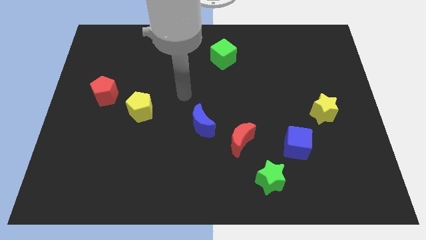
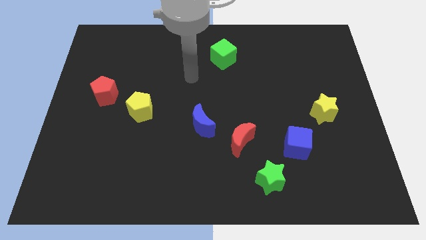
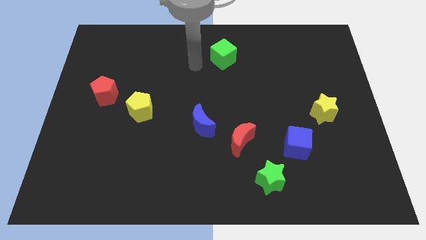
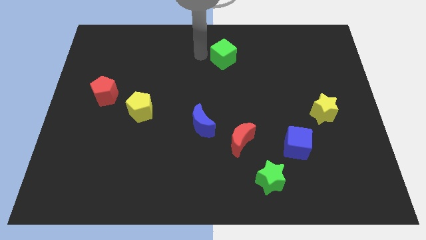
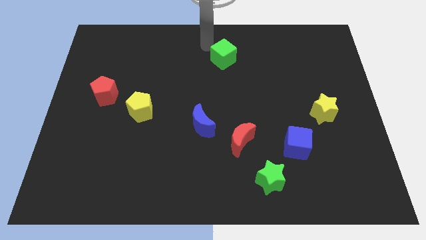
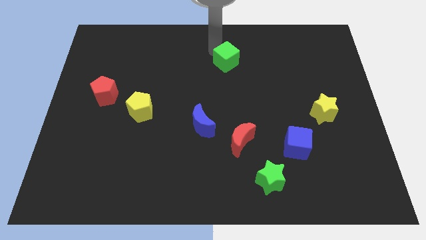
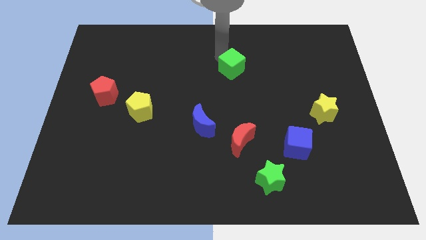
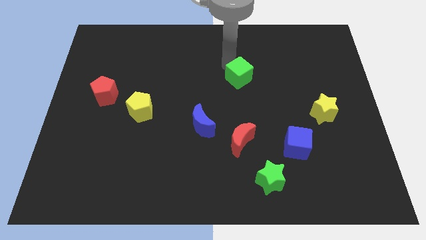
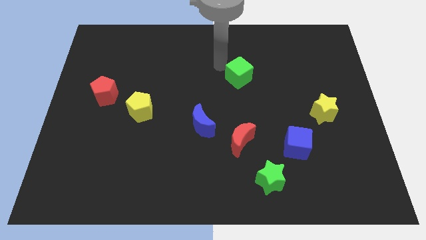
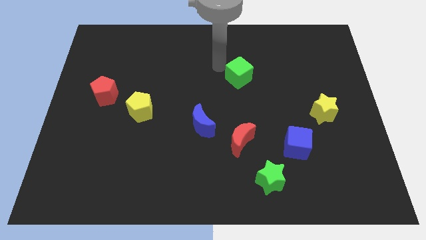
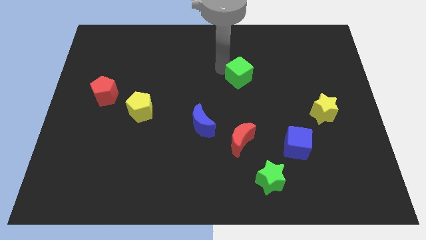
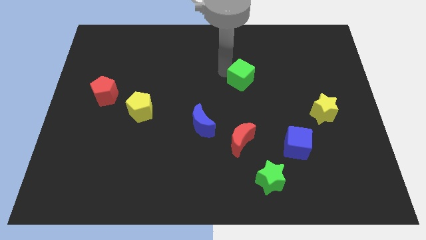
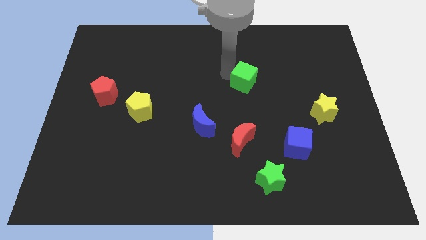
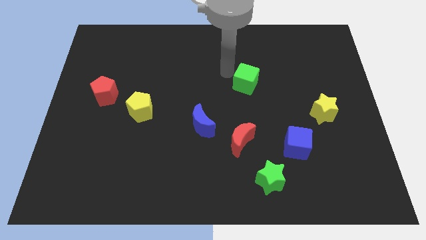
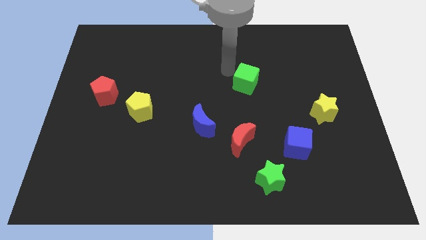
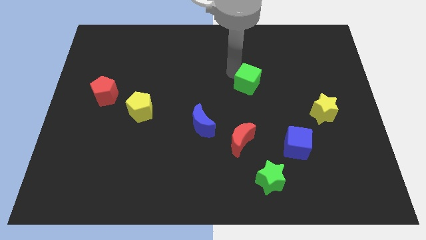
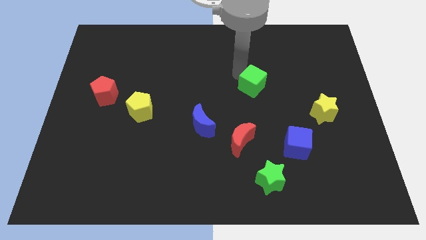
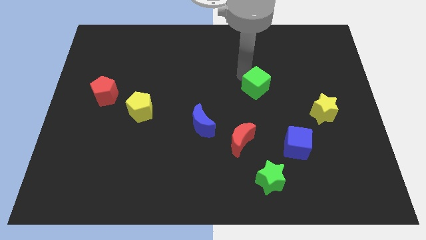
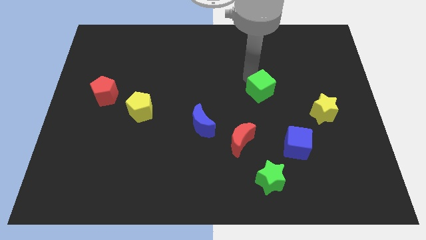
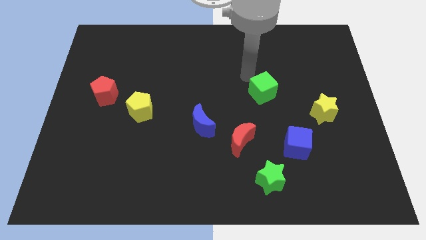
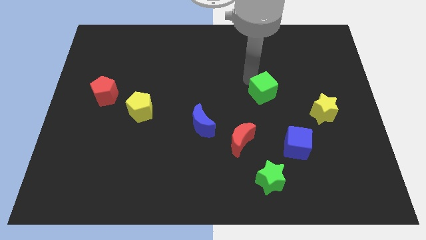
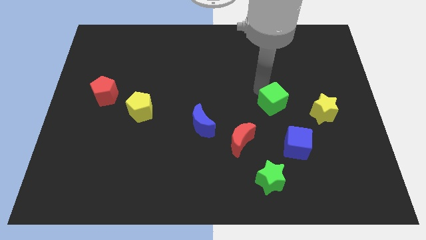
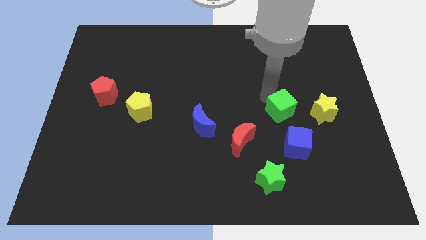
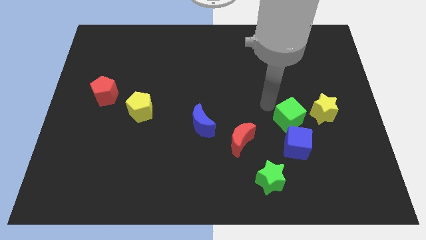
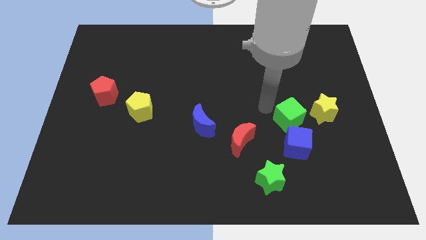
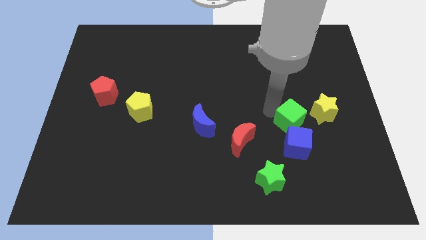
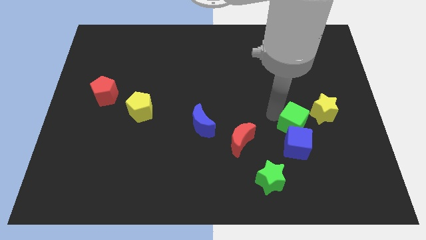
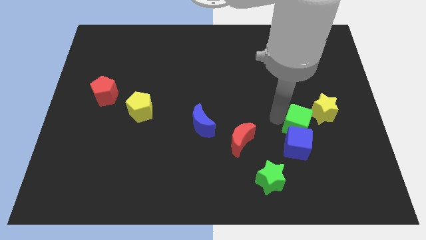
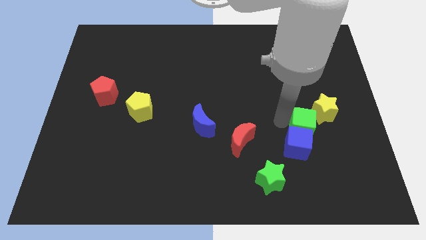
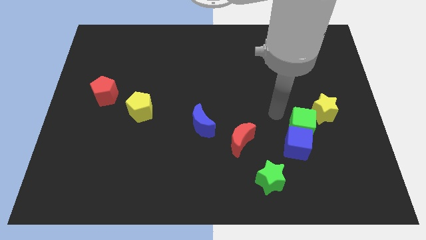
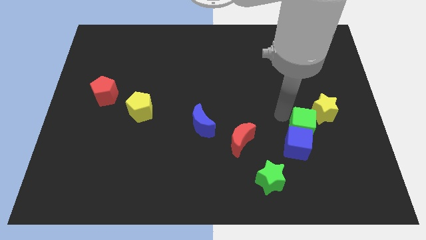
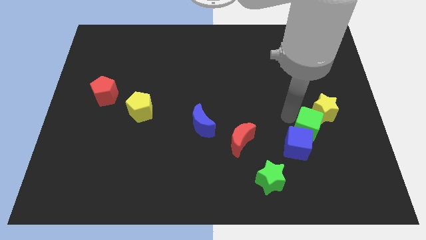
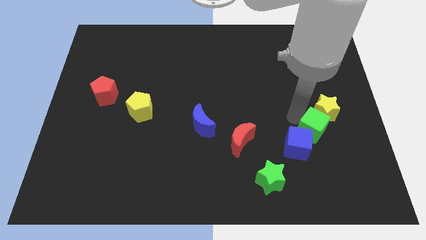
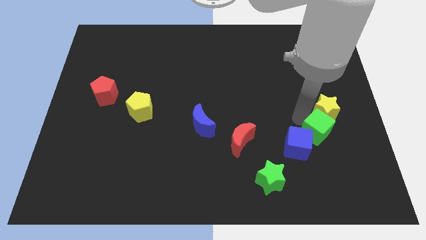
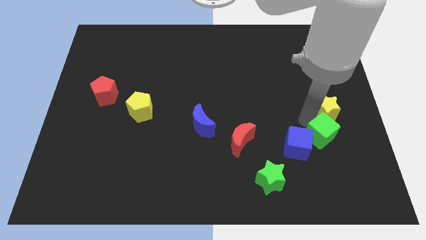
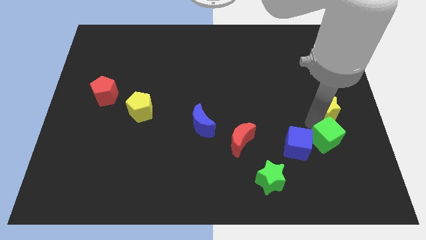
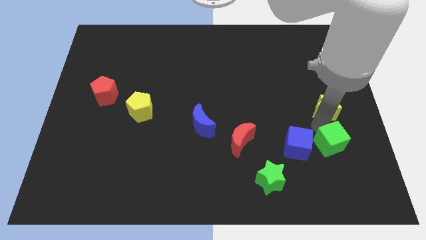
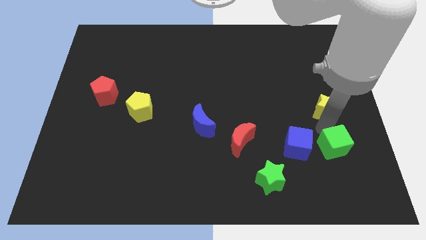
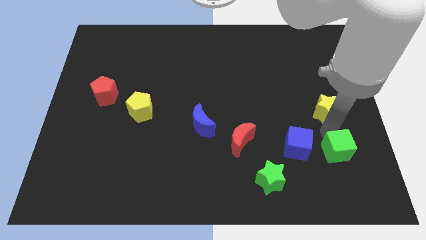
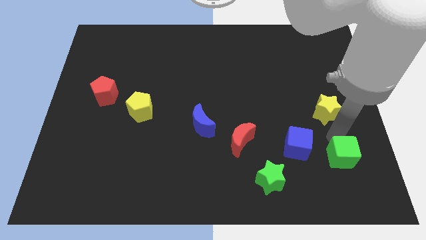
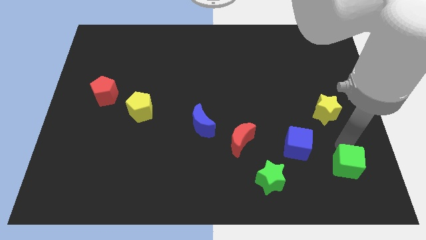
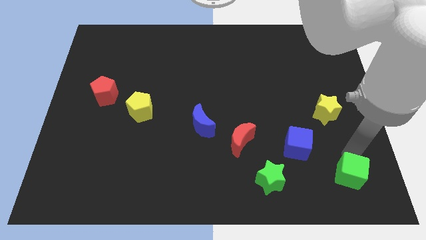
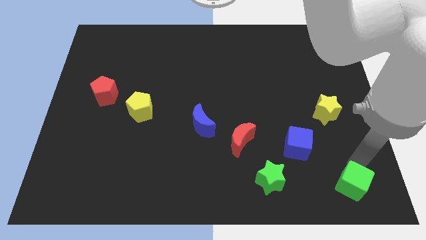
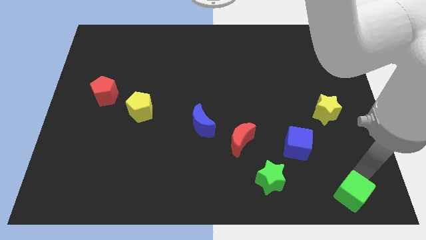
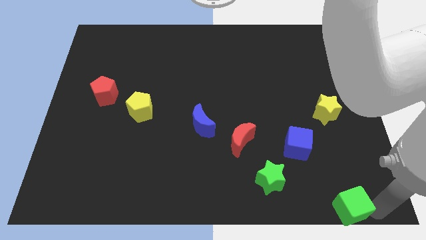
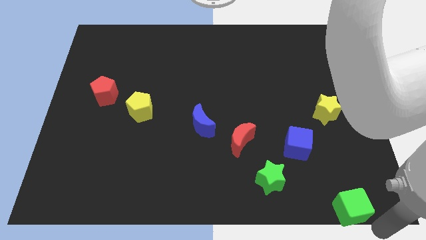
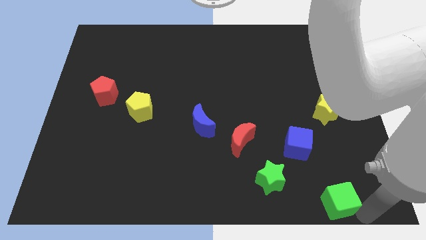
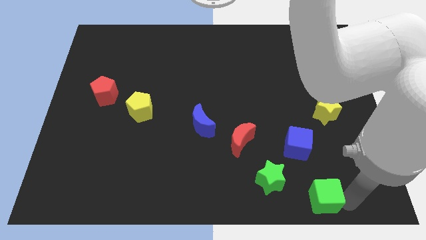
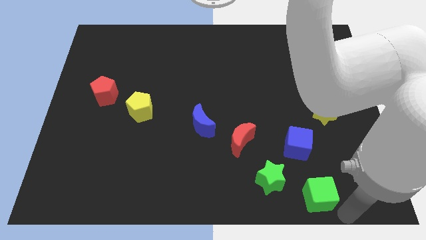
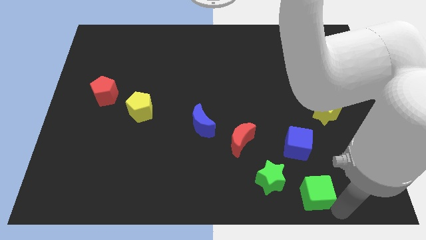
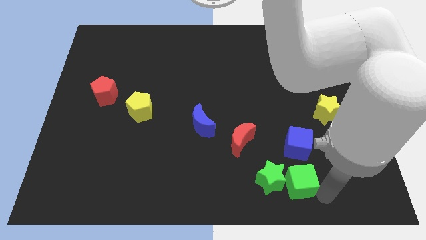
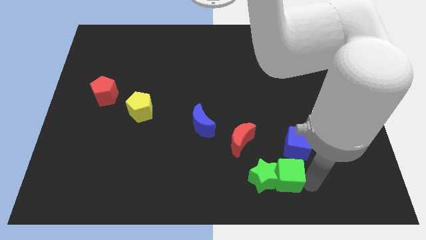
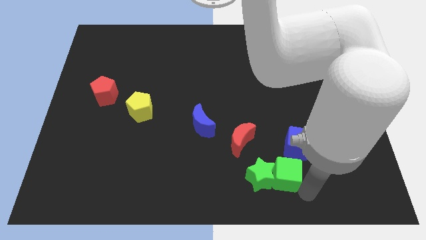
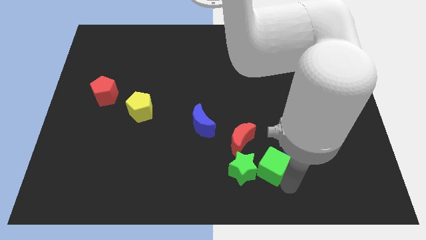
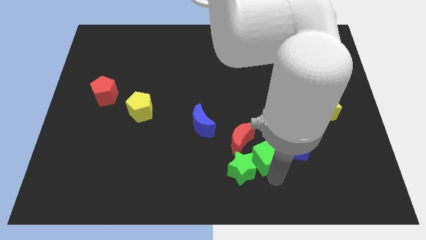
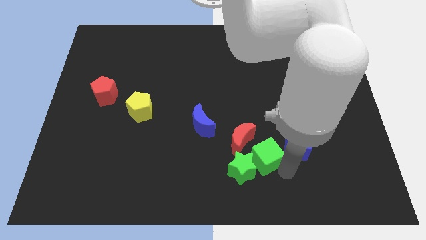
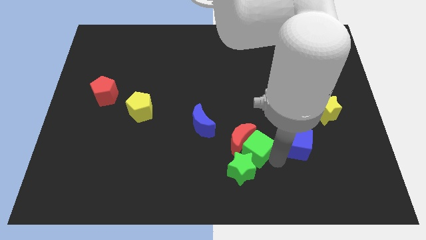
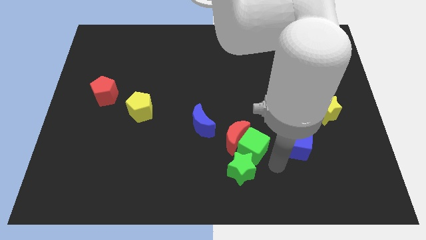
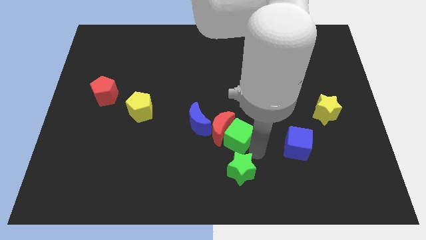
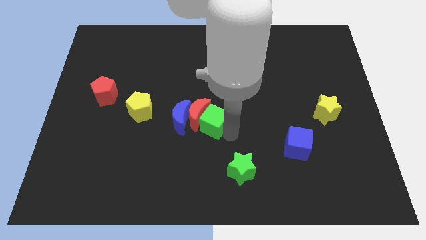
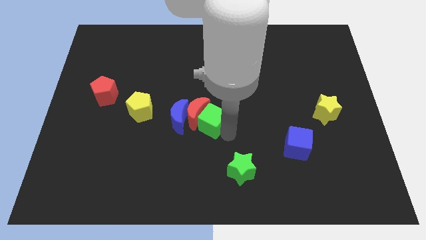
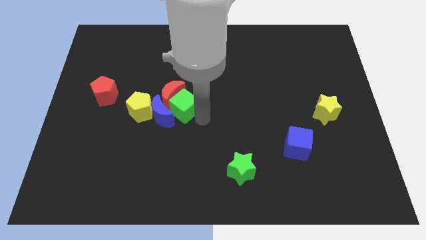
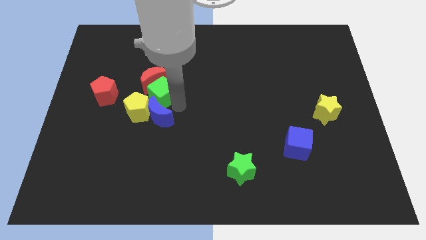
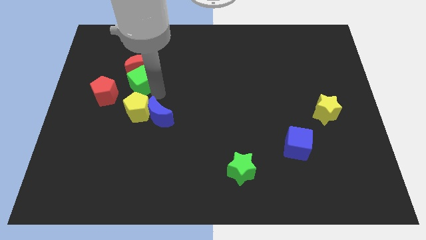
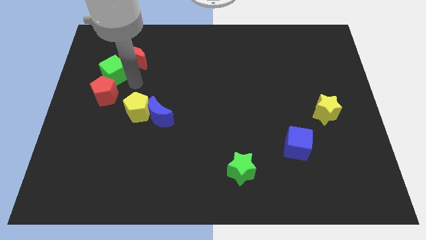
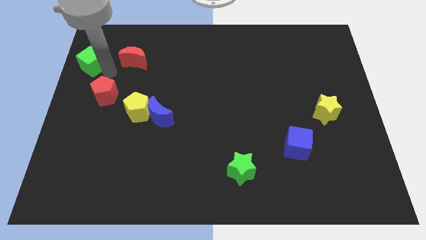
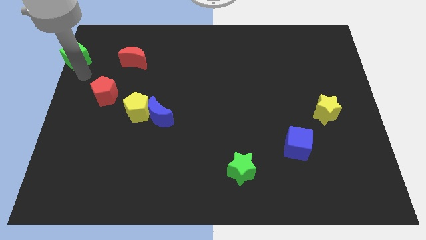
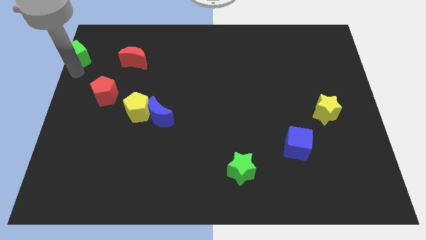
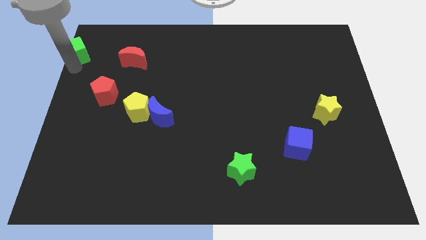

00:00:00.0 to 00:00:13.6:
move the green cube to the top left
